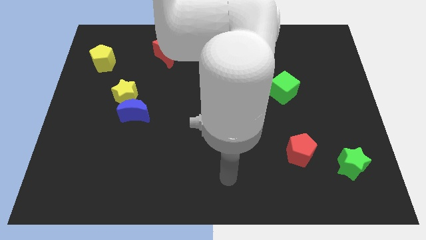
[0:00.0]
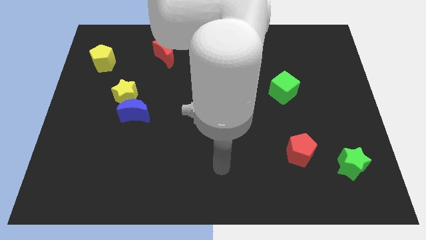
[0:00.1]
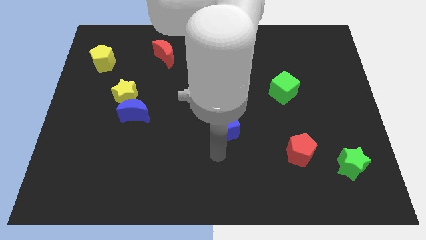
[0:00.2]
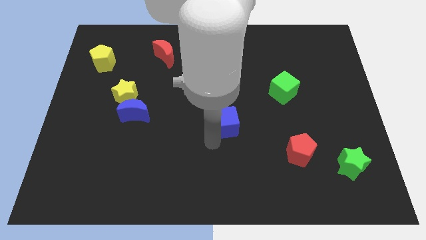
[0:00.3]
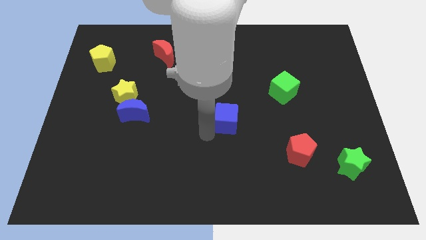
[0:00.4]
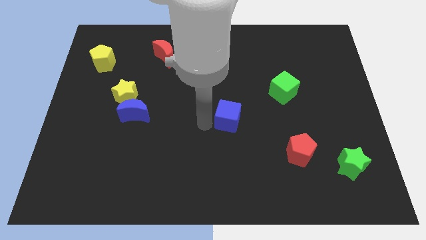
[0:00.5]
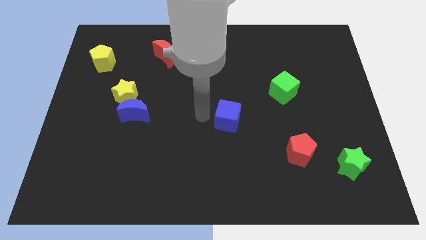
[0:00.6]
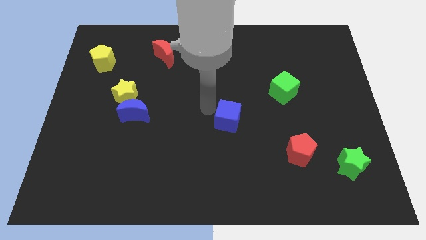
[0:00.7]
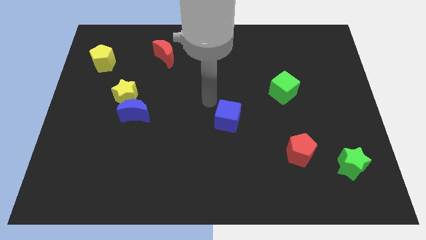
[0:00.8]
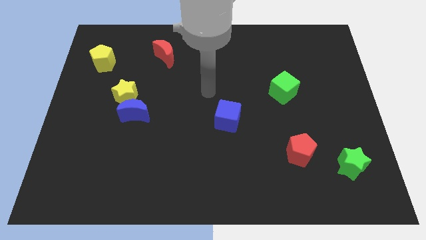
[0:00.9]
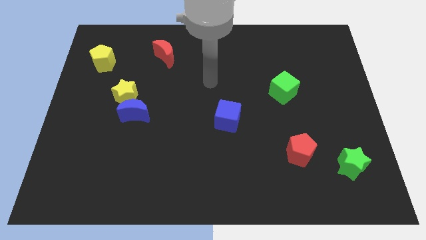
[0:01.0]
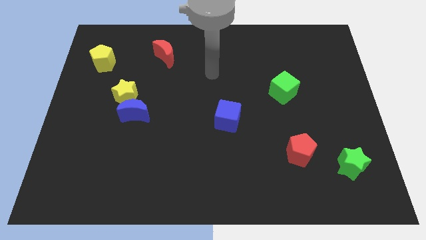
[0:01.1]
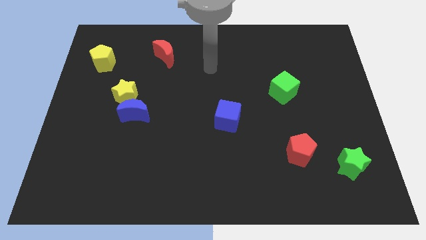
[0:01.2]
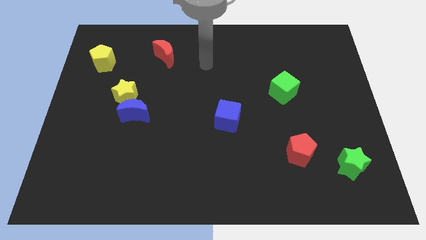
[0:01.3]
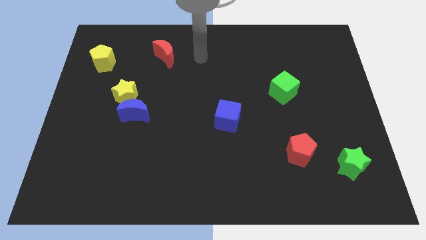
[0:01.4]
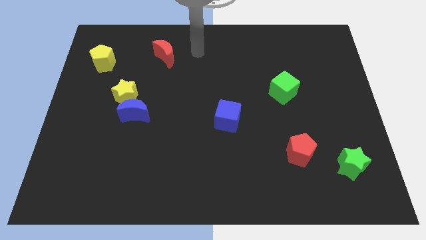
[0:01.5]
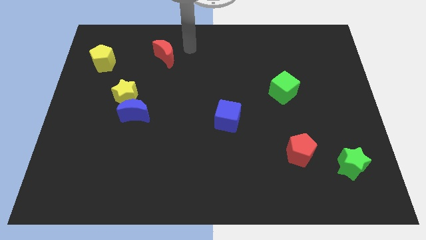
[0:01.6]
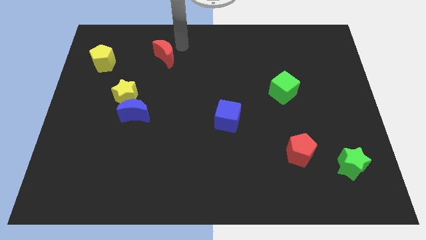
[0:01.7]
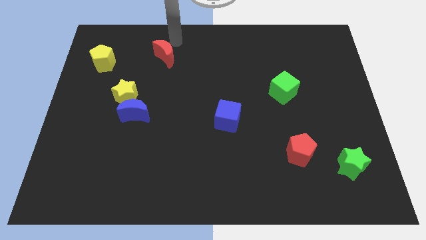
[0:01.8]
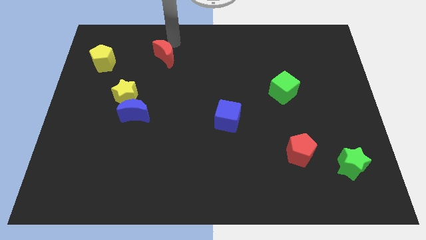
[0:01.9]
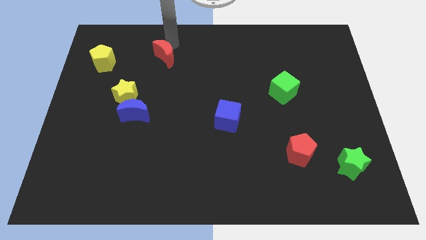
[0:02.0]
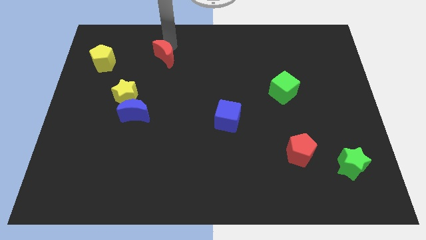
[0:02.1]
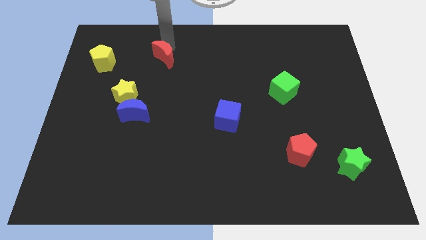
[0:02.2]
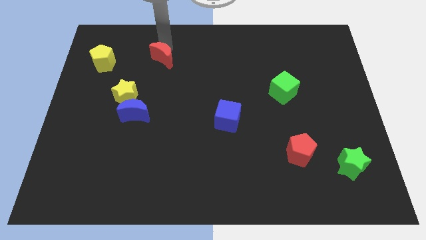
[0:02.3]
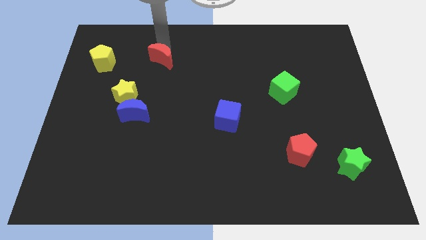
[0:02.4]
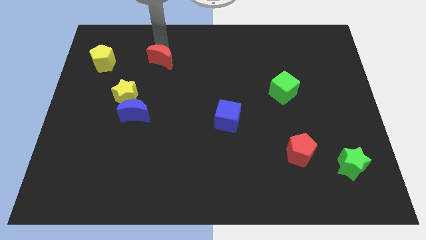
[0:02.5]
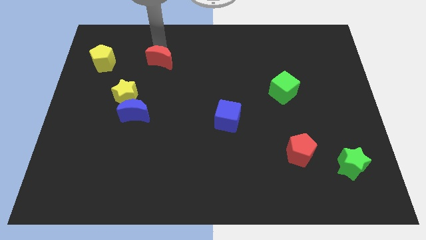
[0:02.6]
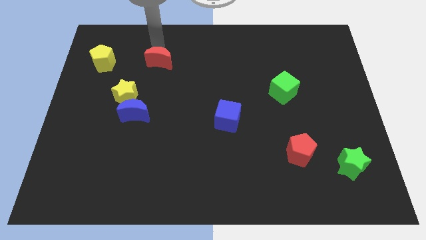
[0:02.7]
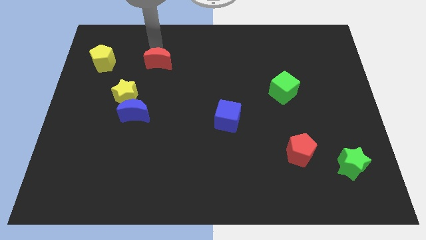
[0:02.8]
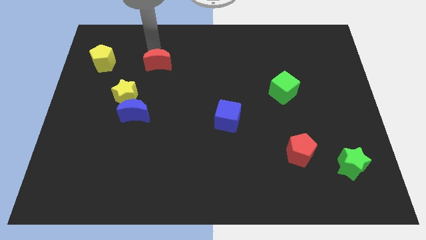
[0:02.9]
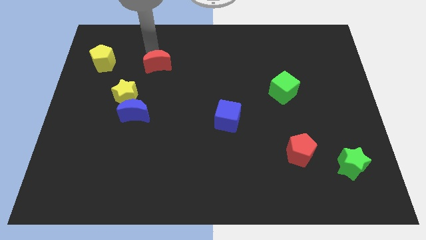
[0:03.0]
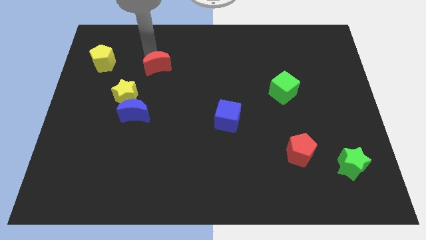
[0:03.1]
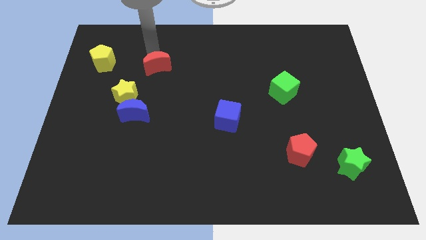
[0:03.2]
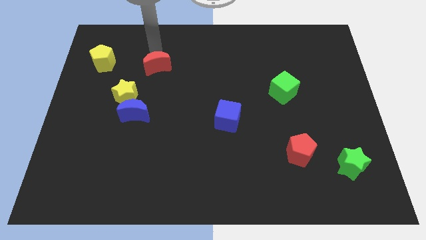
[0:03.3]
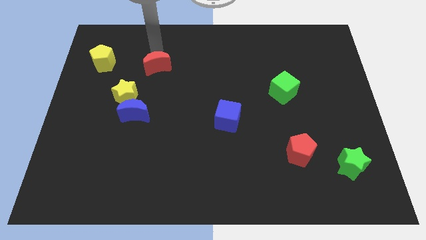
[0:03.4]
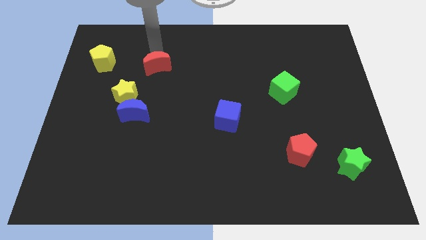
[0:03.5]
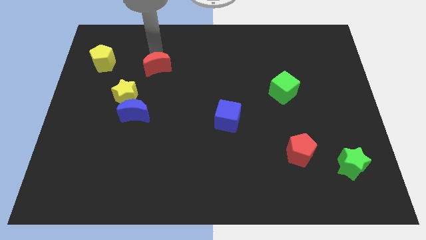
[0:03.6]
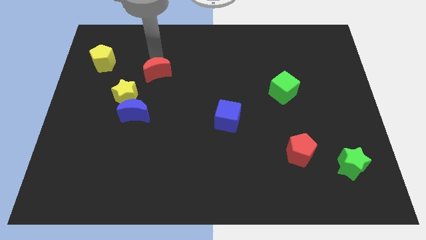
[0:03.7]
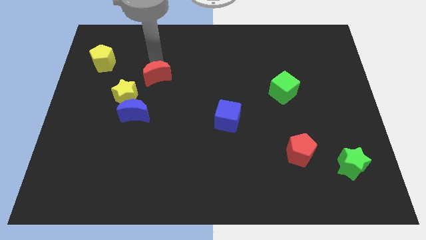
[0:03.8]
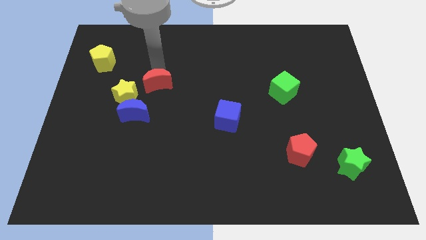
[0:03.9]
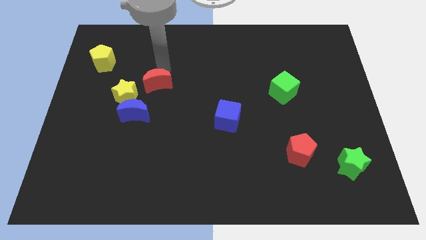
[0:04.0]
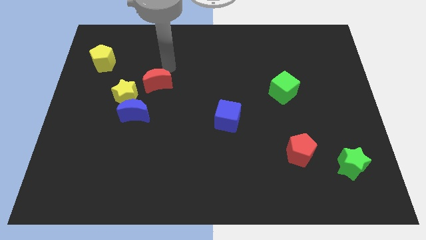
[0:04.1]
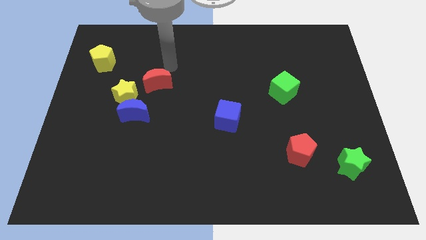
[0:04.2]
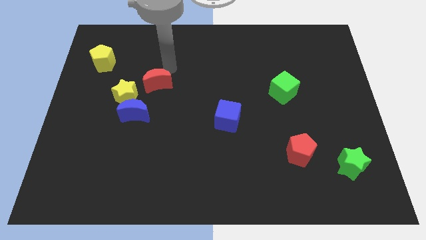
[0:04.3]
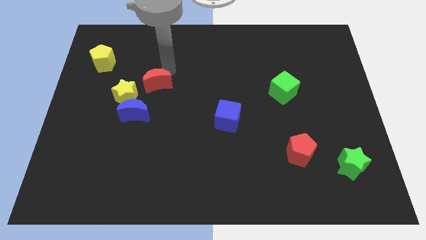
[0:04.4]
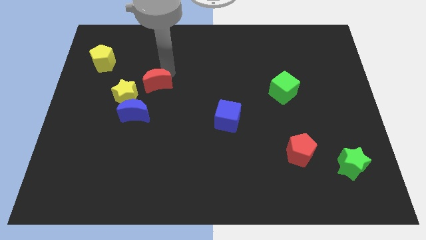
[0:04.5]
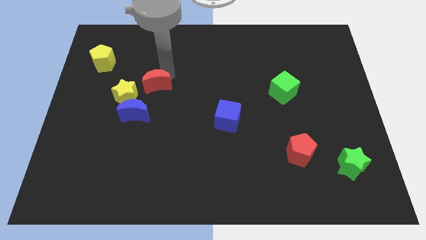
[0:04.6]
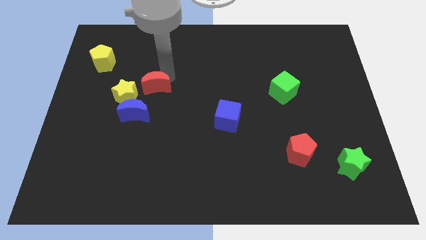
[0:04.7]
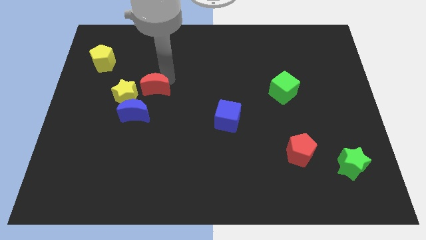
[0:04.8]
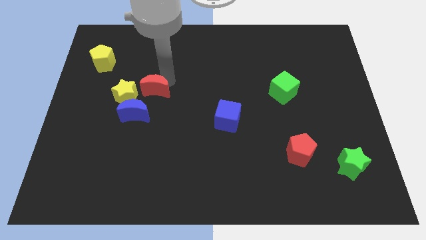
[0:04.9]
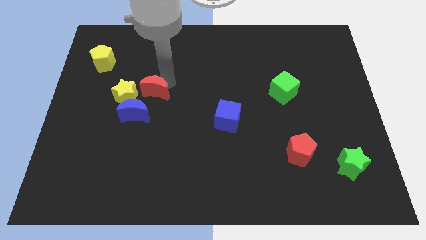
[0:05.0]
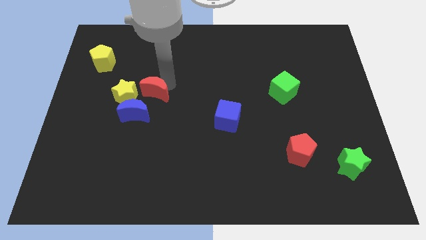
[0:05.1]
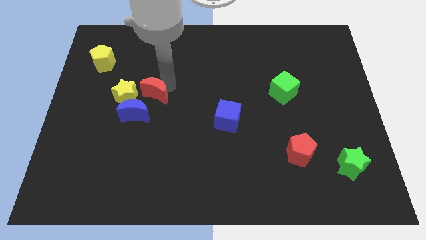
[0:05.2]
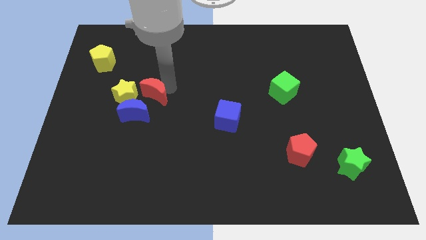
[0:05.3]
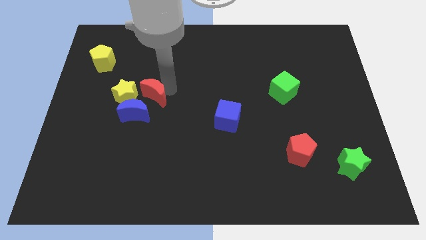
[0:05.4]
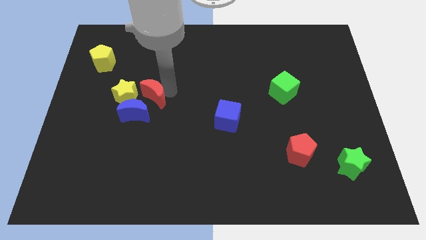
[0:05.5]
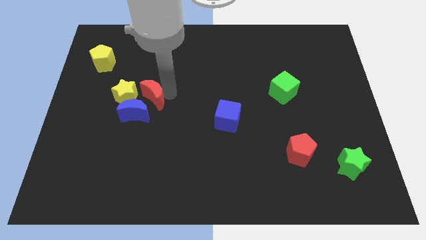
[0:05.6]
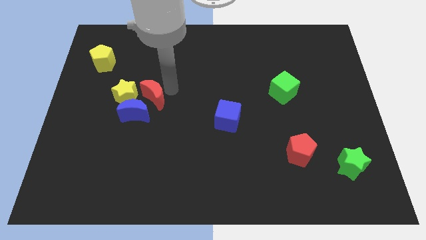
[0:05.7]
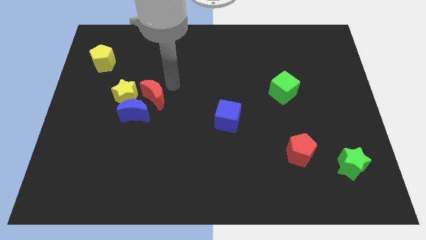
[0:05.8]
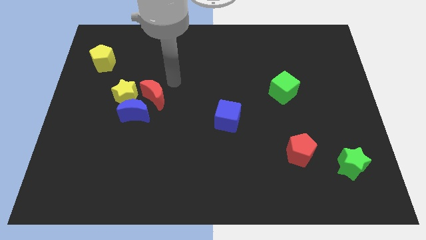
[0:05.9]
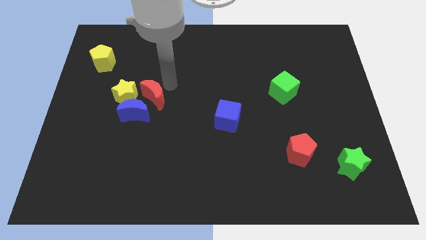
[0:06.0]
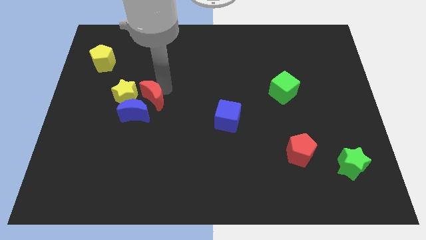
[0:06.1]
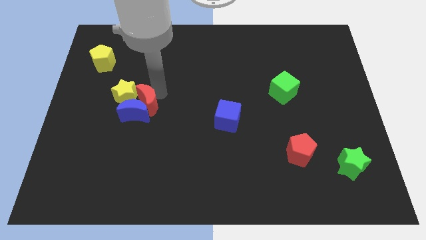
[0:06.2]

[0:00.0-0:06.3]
push the red moon towards the blue moon
